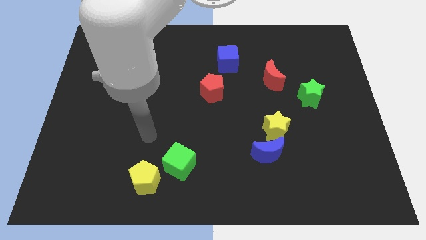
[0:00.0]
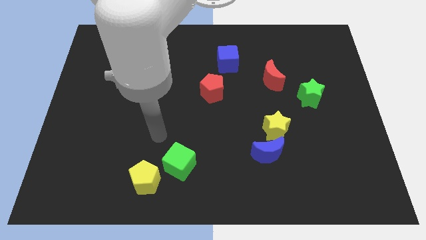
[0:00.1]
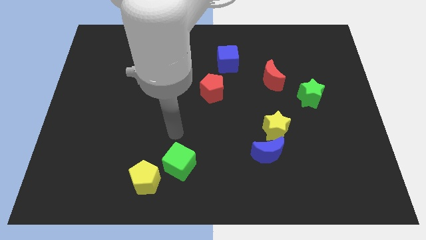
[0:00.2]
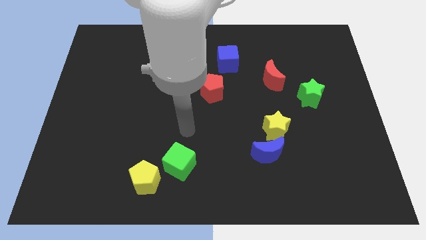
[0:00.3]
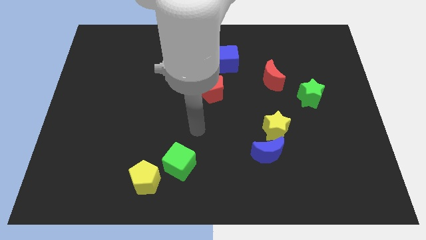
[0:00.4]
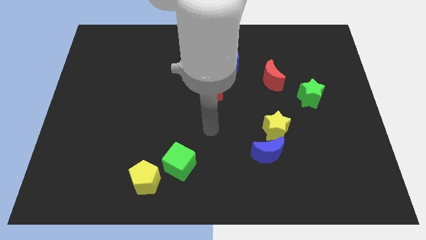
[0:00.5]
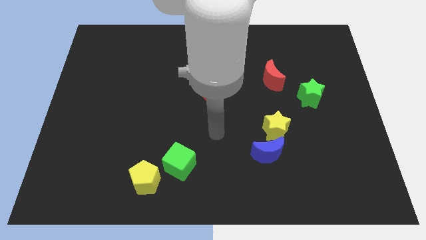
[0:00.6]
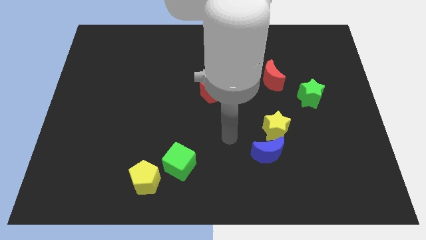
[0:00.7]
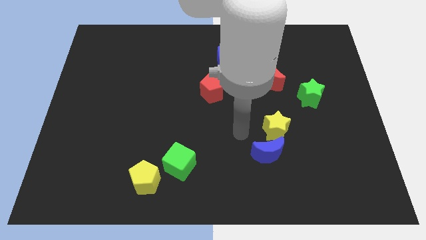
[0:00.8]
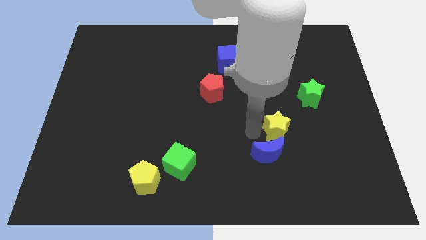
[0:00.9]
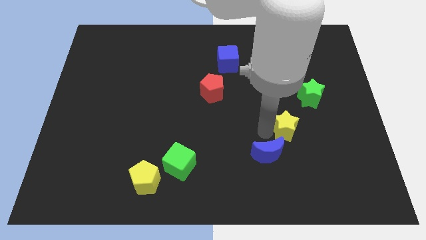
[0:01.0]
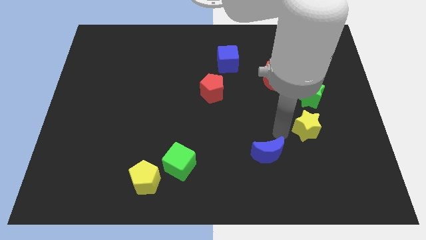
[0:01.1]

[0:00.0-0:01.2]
separate the blue moon from the yellow star

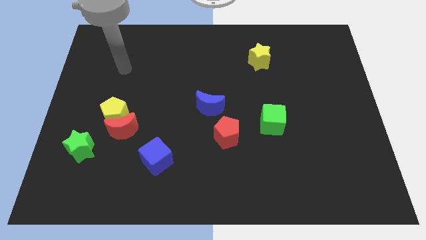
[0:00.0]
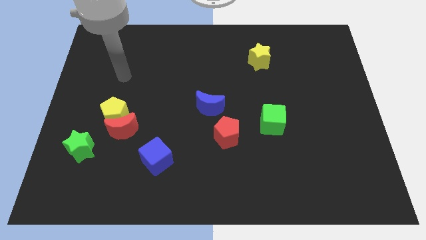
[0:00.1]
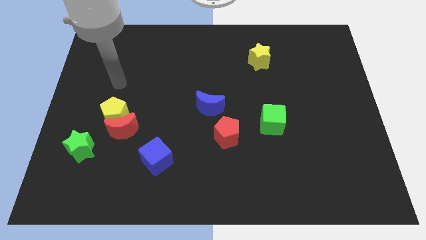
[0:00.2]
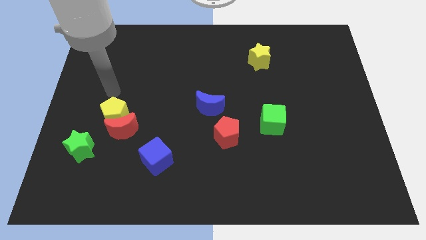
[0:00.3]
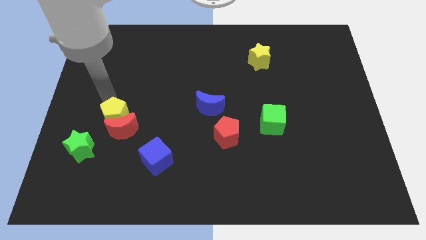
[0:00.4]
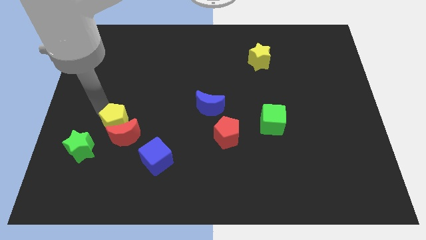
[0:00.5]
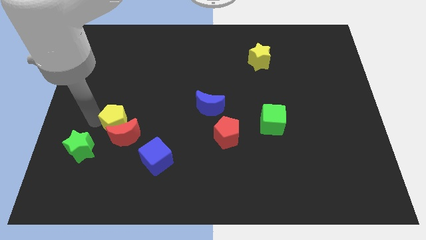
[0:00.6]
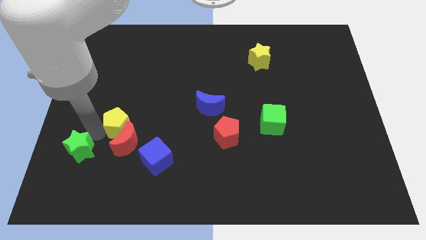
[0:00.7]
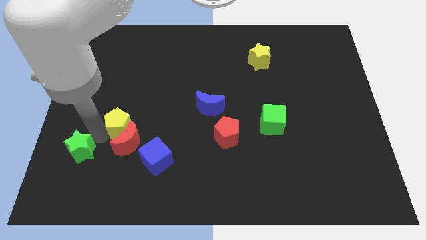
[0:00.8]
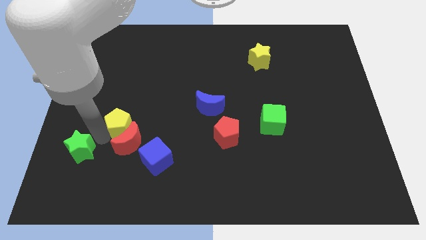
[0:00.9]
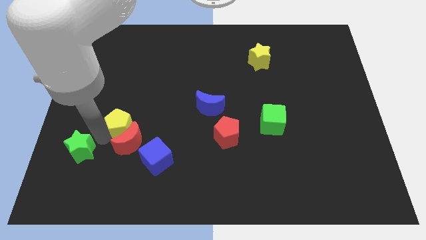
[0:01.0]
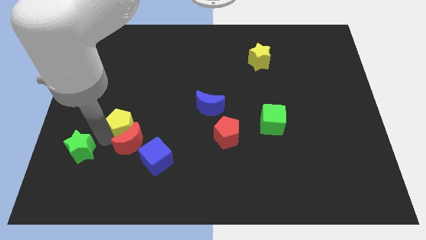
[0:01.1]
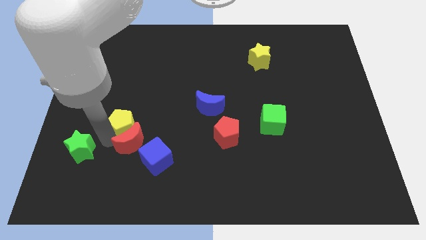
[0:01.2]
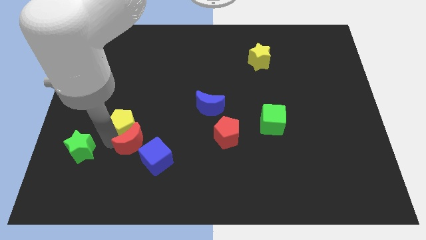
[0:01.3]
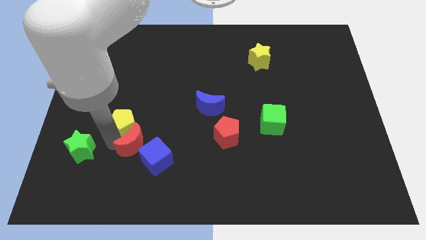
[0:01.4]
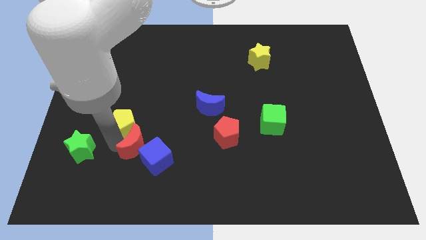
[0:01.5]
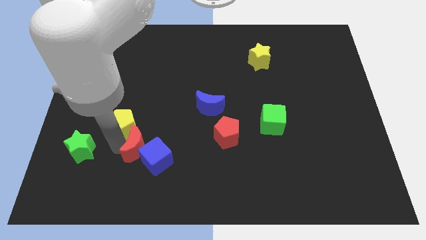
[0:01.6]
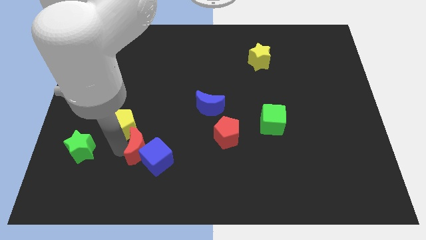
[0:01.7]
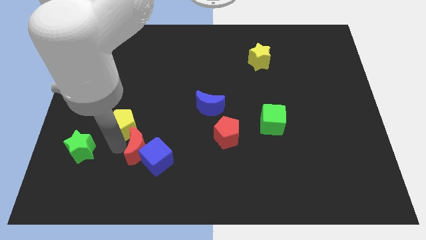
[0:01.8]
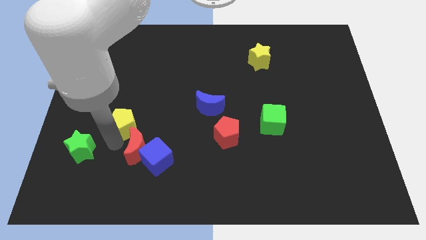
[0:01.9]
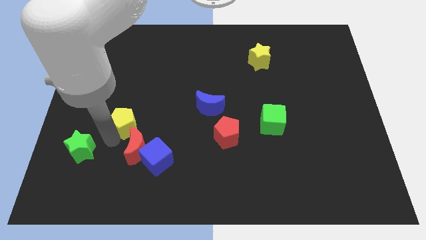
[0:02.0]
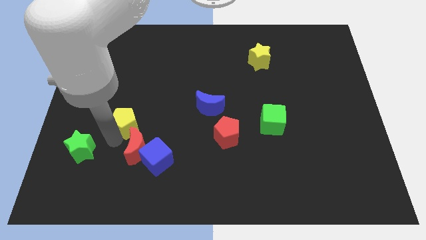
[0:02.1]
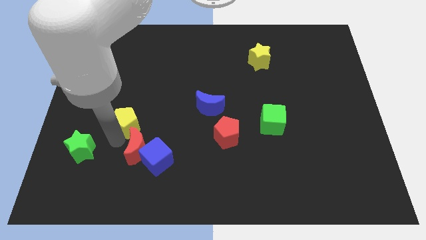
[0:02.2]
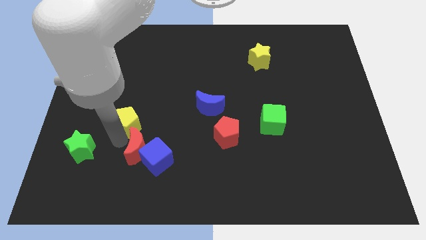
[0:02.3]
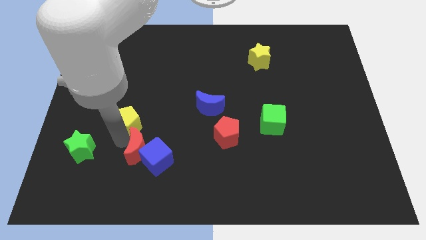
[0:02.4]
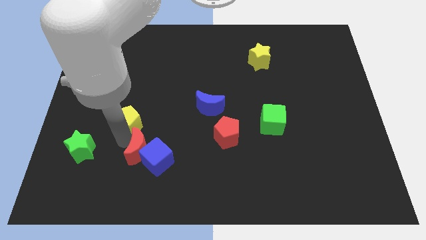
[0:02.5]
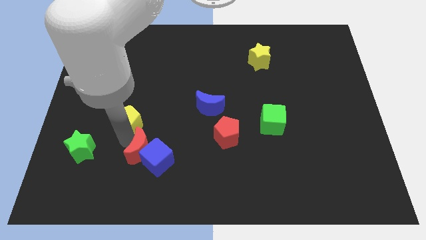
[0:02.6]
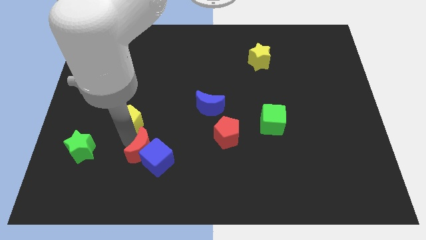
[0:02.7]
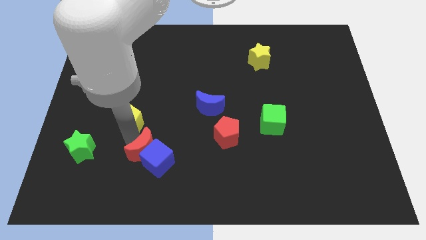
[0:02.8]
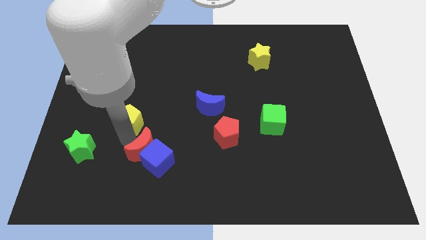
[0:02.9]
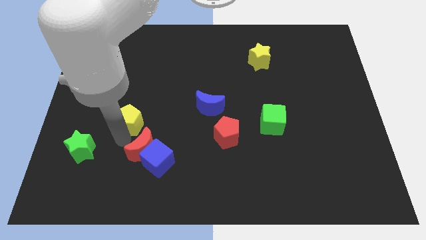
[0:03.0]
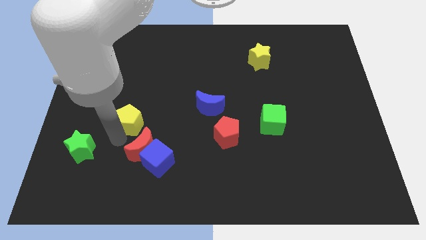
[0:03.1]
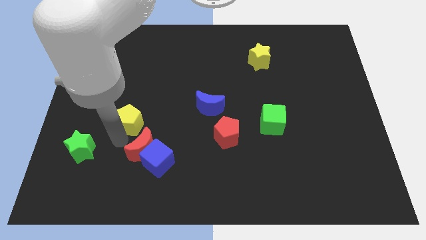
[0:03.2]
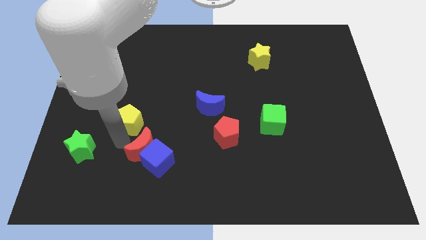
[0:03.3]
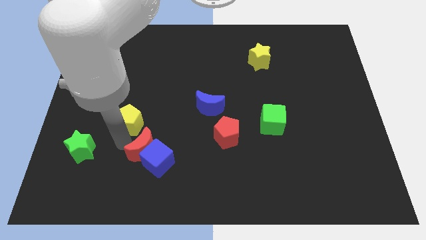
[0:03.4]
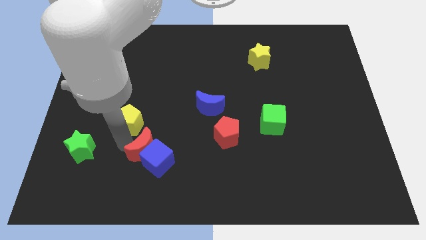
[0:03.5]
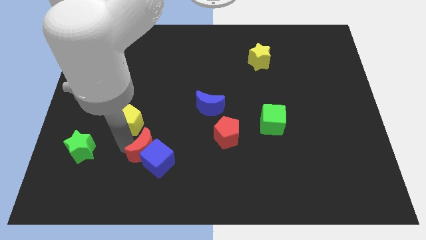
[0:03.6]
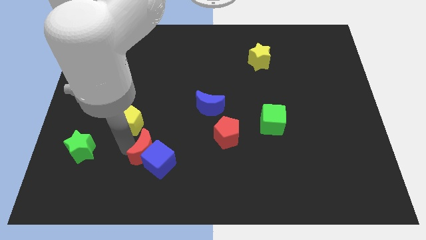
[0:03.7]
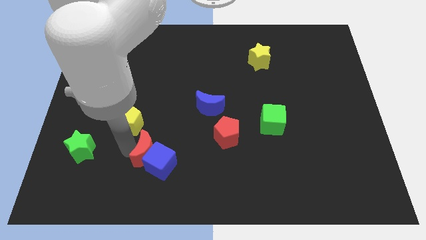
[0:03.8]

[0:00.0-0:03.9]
move the red moon away from the yellow pentagon and green star

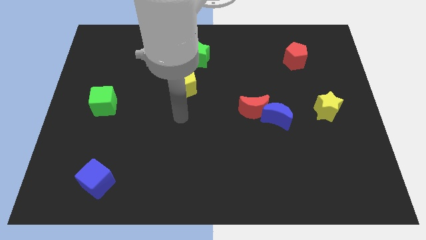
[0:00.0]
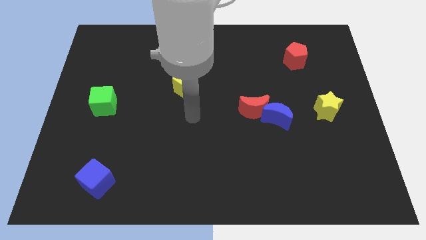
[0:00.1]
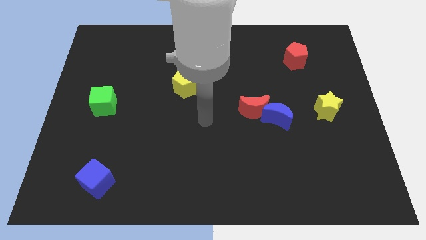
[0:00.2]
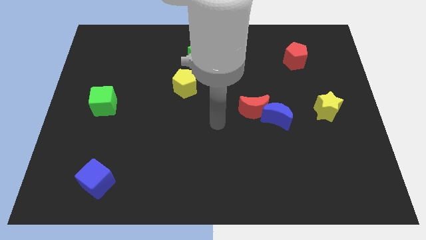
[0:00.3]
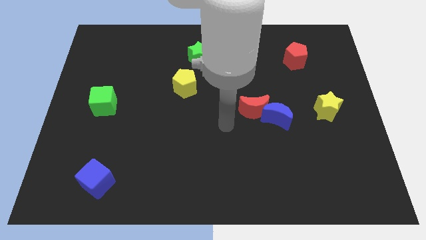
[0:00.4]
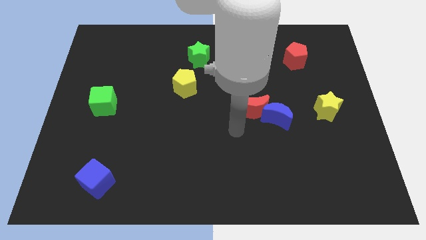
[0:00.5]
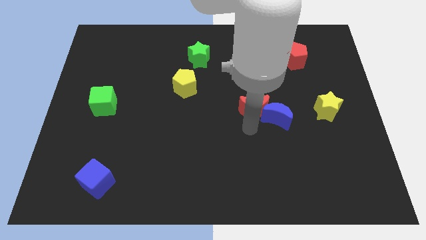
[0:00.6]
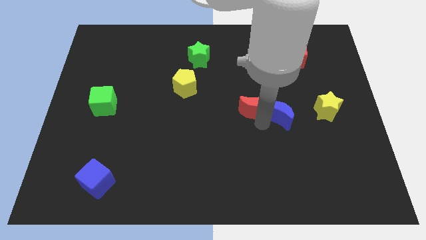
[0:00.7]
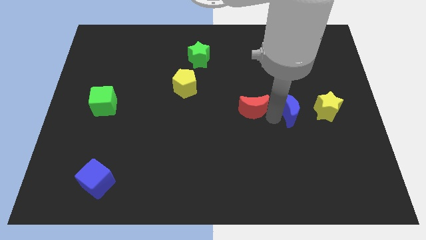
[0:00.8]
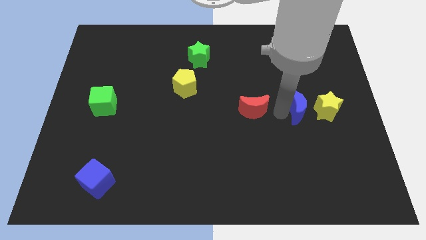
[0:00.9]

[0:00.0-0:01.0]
separate the red moon from the blue moon

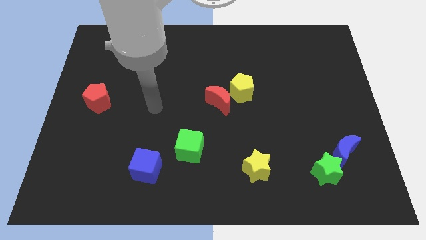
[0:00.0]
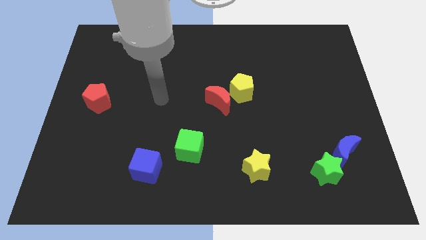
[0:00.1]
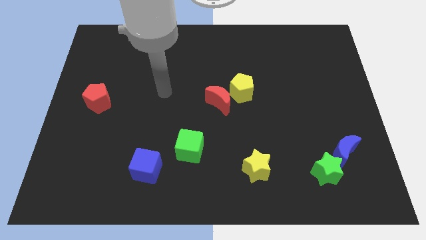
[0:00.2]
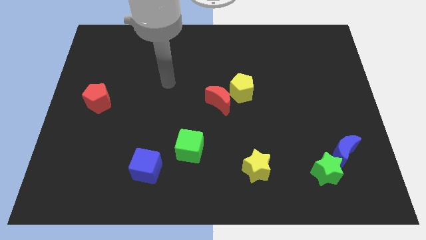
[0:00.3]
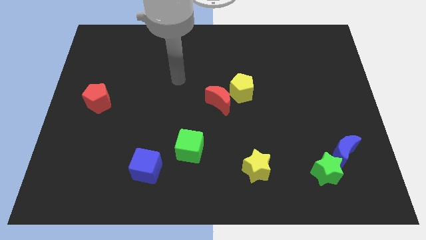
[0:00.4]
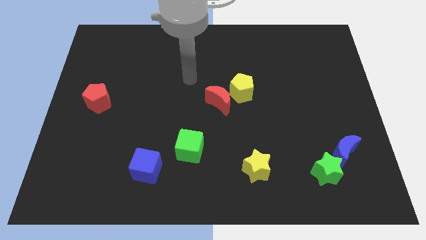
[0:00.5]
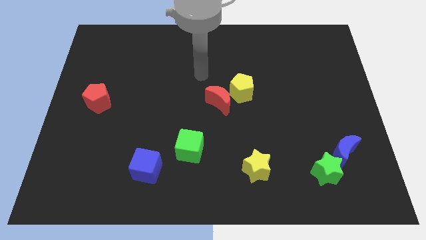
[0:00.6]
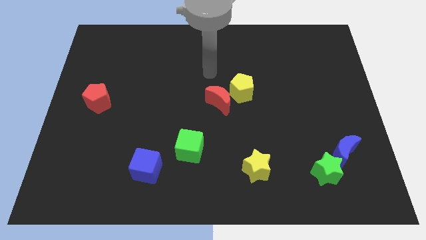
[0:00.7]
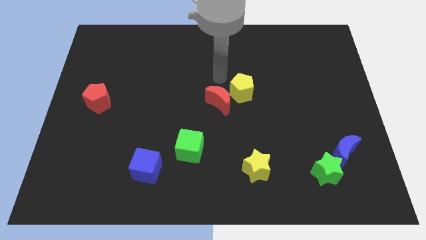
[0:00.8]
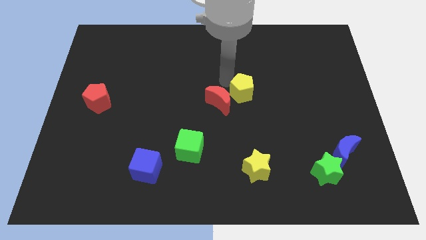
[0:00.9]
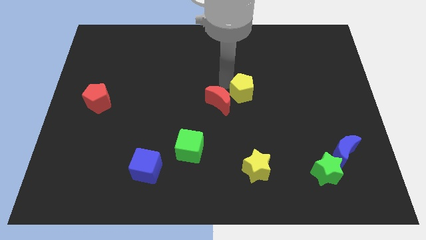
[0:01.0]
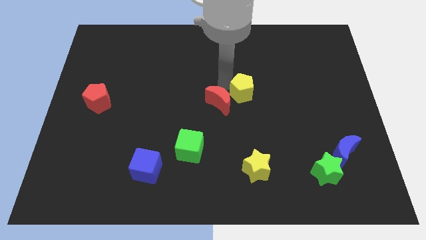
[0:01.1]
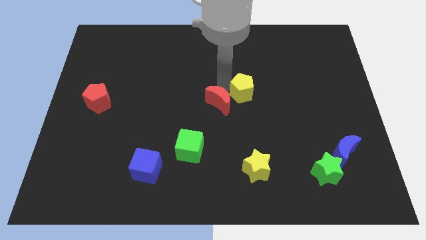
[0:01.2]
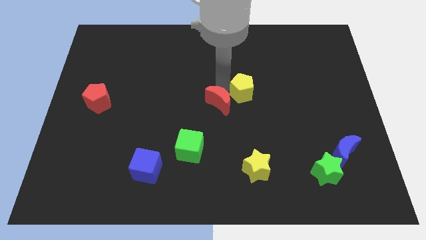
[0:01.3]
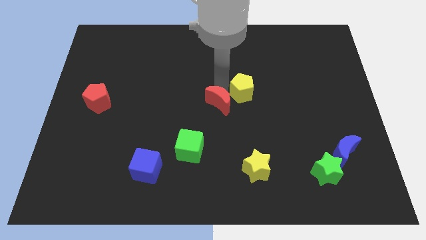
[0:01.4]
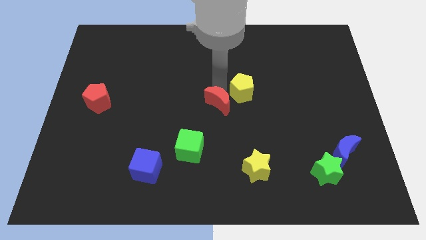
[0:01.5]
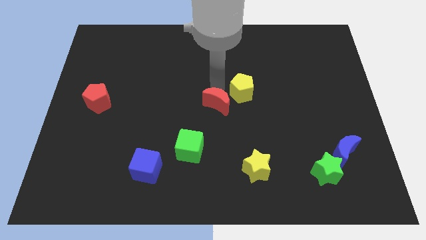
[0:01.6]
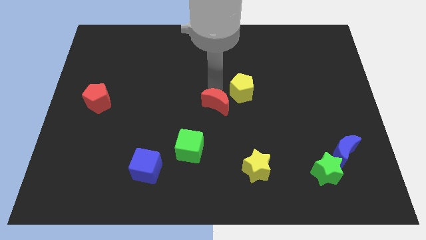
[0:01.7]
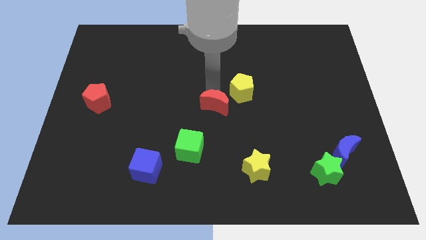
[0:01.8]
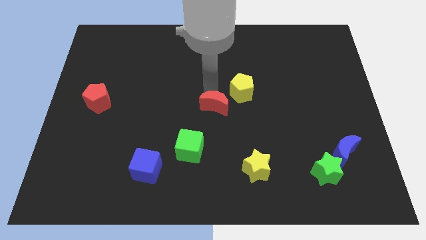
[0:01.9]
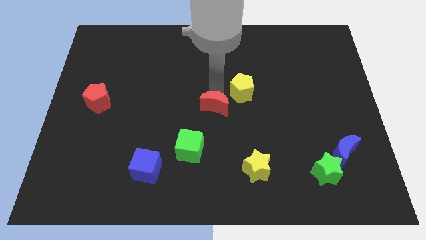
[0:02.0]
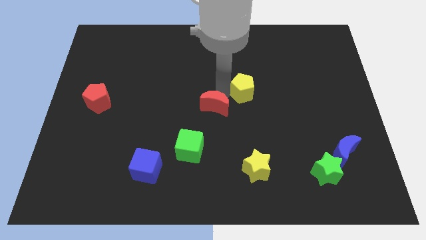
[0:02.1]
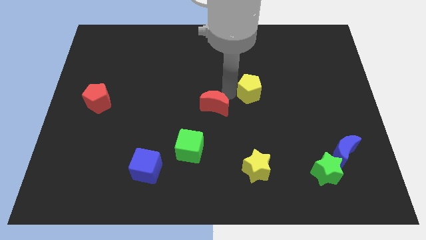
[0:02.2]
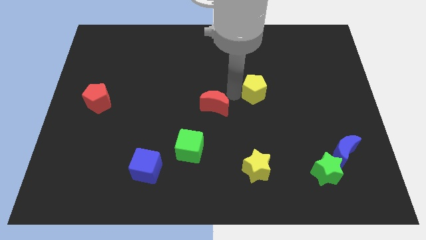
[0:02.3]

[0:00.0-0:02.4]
move the red moon away from the yellow pentagon

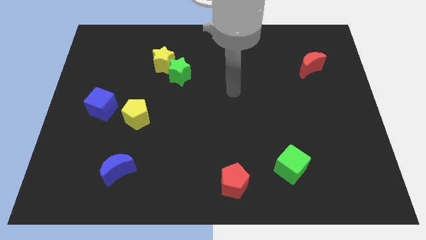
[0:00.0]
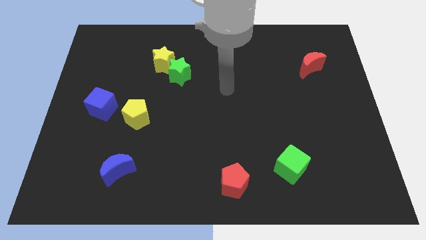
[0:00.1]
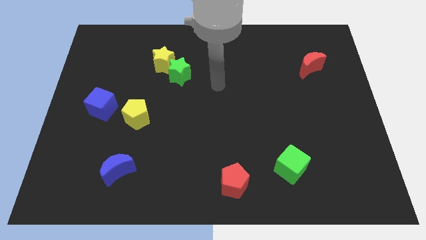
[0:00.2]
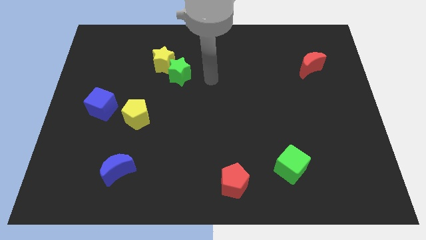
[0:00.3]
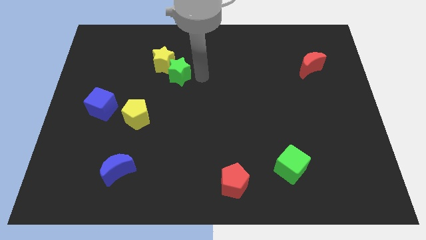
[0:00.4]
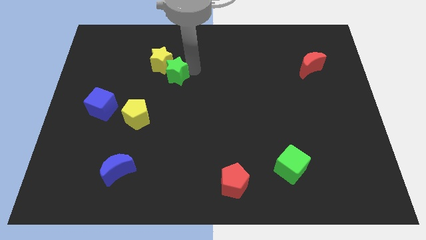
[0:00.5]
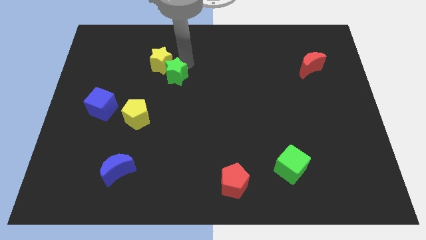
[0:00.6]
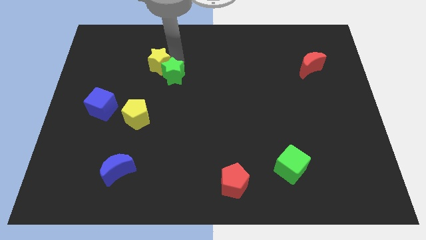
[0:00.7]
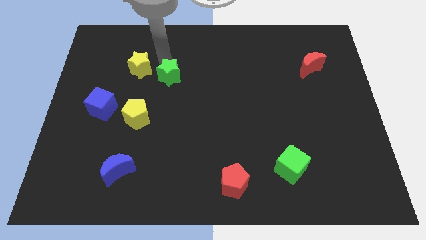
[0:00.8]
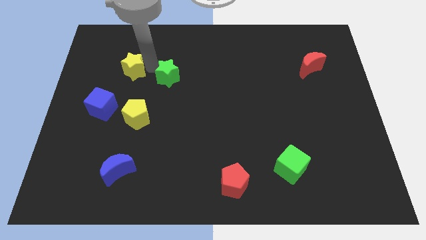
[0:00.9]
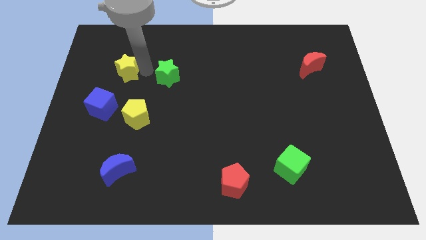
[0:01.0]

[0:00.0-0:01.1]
move the green star away from the yellow star
